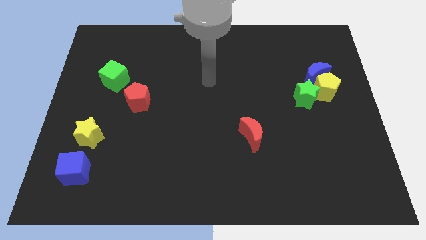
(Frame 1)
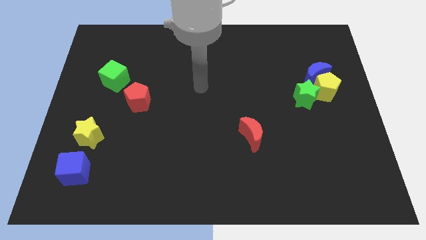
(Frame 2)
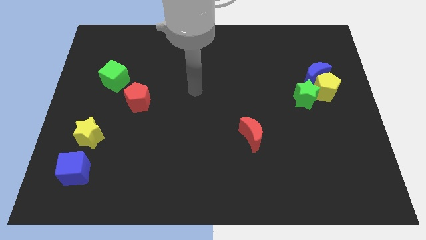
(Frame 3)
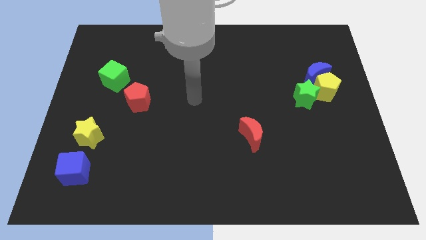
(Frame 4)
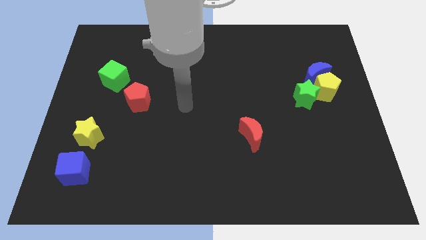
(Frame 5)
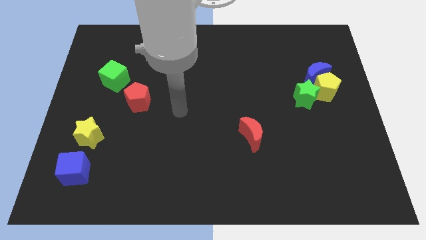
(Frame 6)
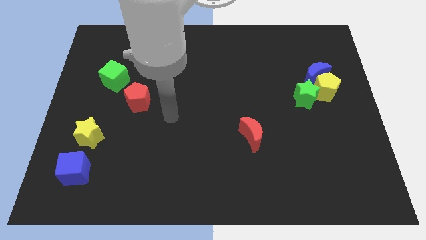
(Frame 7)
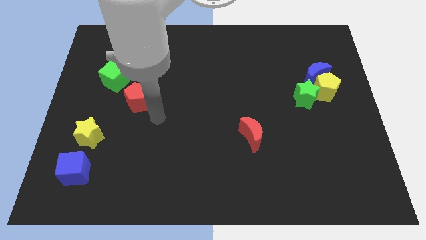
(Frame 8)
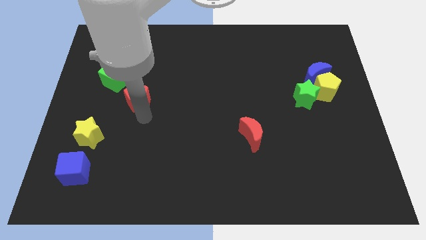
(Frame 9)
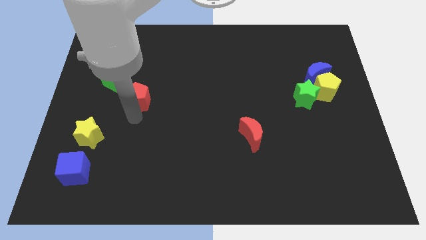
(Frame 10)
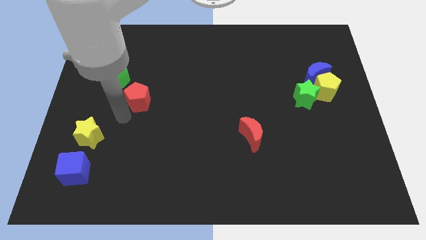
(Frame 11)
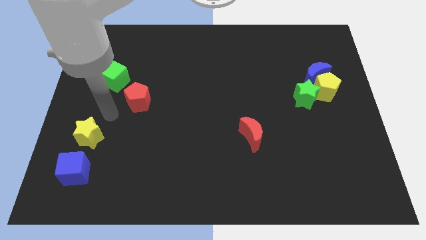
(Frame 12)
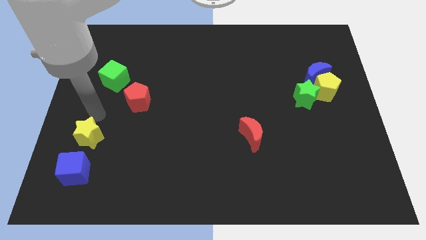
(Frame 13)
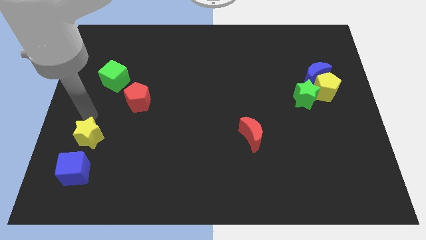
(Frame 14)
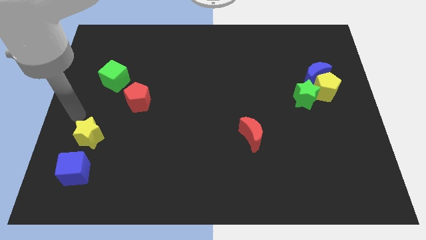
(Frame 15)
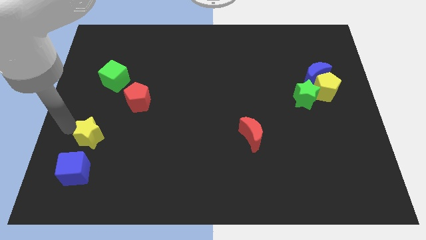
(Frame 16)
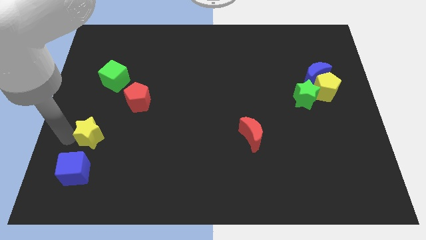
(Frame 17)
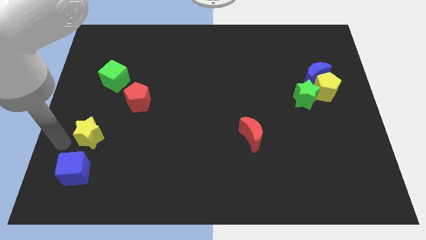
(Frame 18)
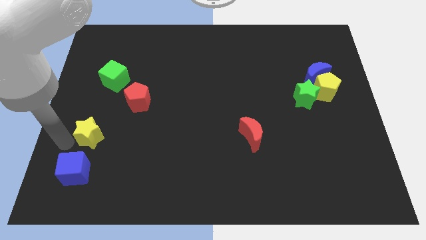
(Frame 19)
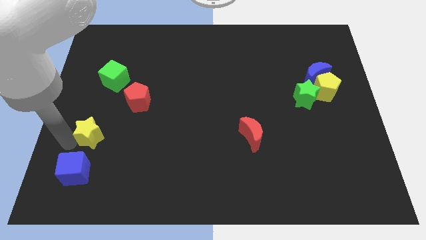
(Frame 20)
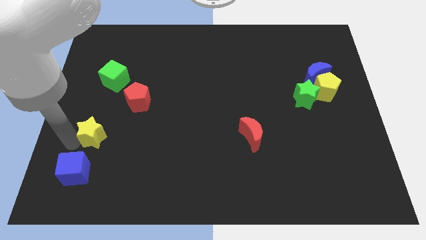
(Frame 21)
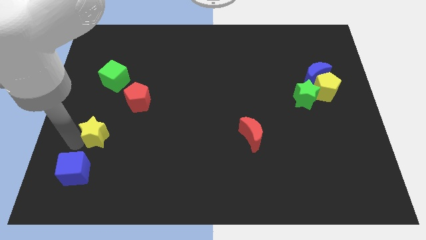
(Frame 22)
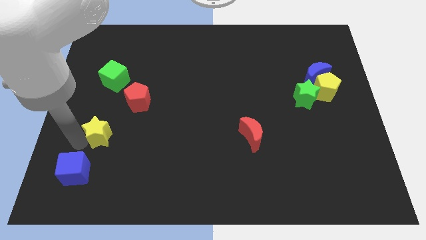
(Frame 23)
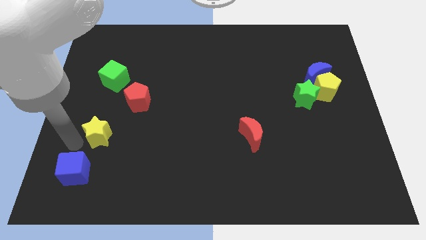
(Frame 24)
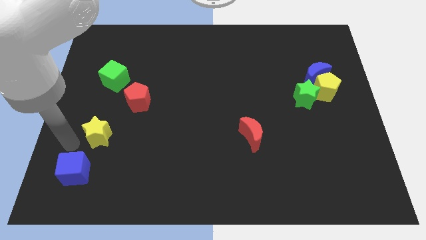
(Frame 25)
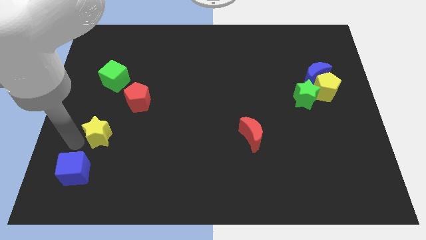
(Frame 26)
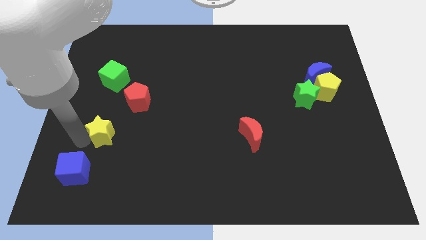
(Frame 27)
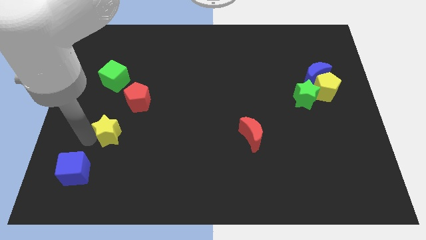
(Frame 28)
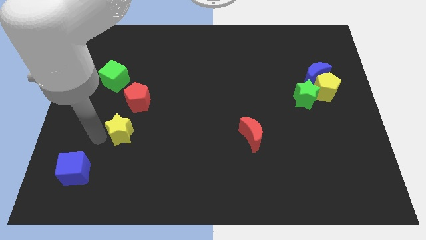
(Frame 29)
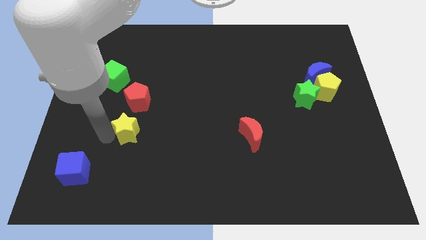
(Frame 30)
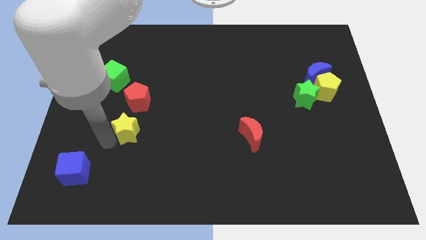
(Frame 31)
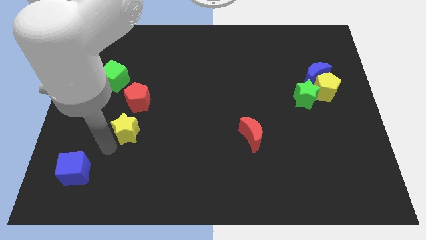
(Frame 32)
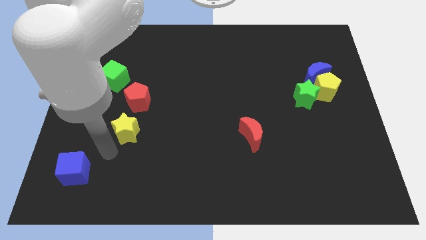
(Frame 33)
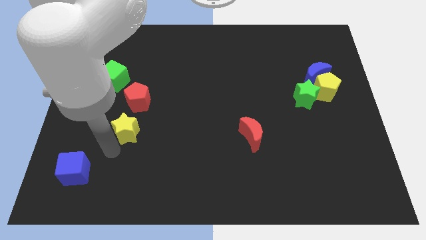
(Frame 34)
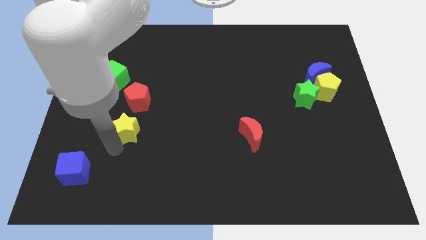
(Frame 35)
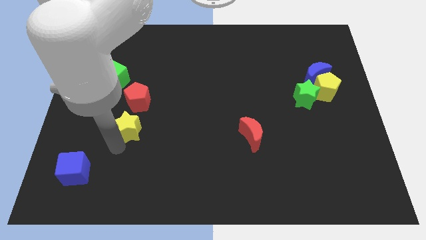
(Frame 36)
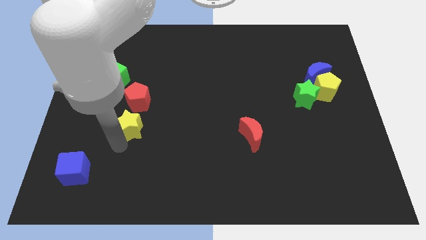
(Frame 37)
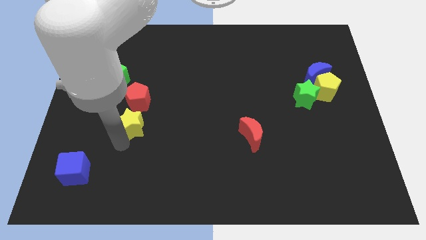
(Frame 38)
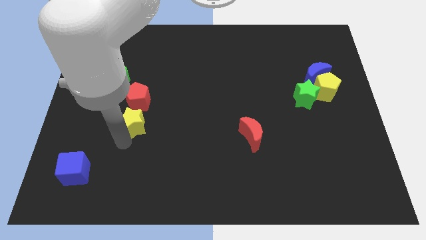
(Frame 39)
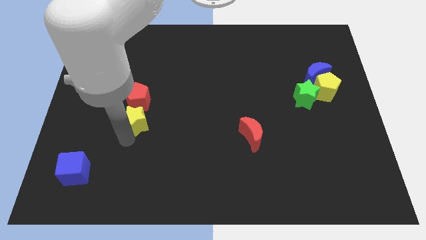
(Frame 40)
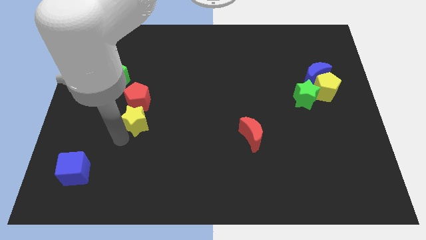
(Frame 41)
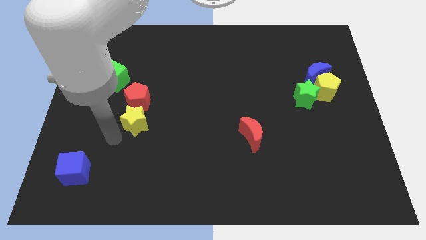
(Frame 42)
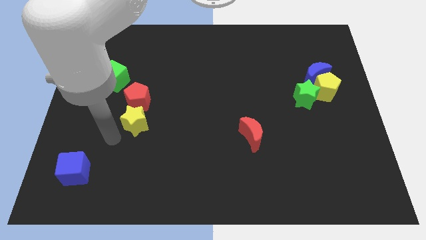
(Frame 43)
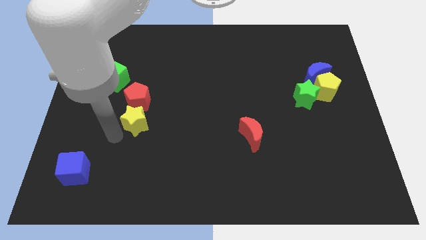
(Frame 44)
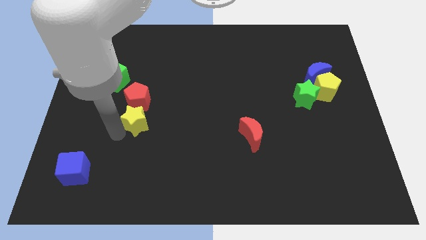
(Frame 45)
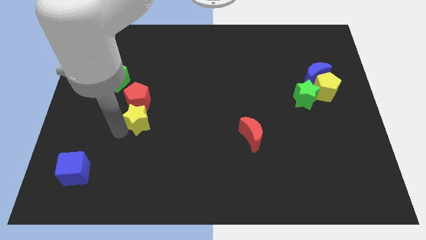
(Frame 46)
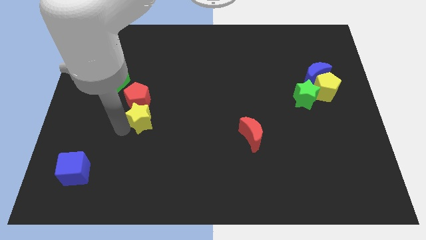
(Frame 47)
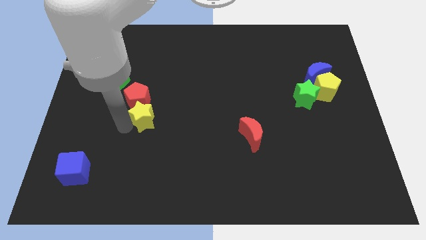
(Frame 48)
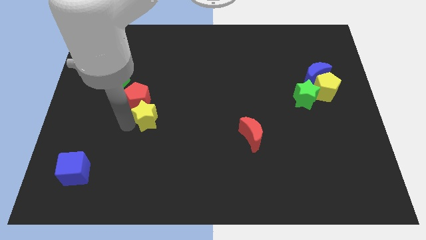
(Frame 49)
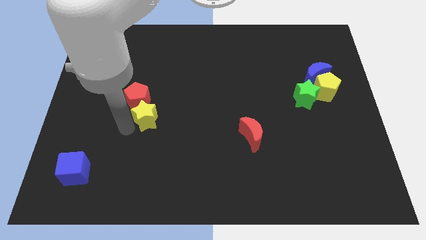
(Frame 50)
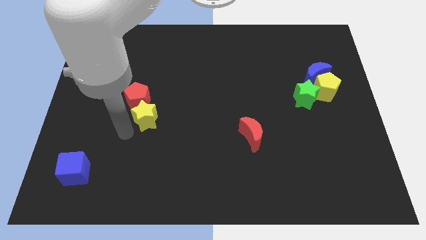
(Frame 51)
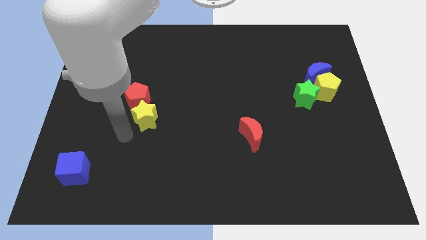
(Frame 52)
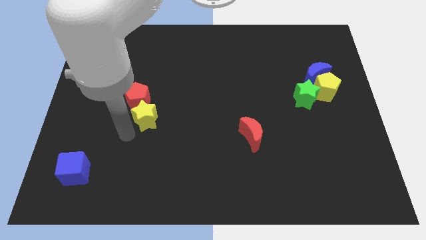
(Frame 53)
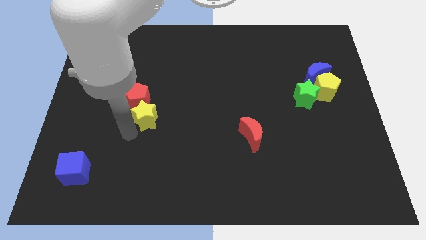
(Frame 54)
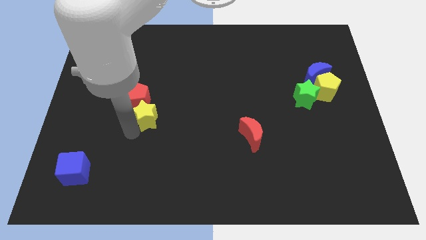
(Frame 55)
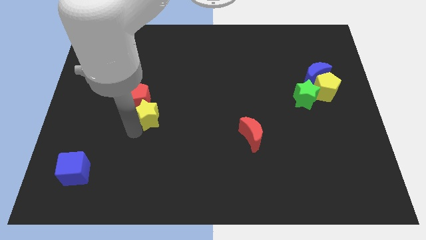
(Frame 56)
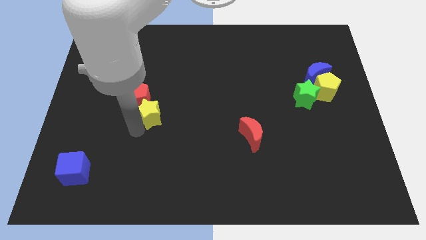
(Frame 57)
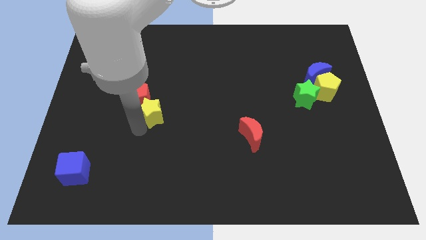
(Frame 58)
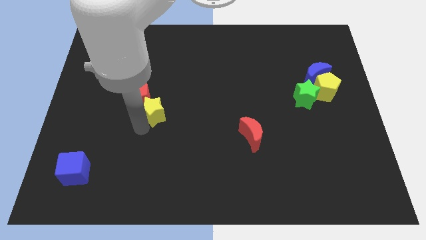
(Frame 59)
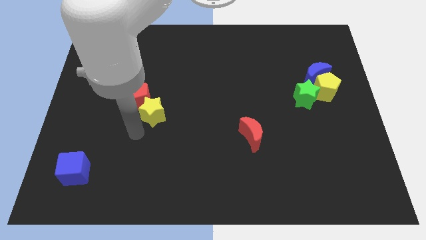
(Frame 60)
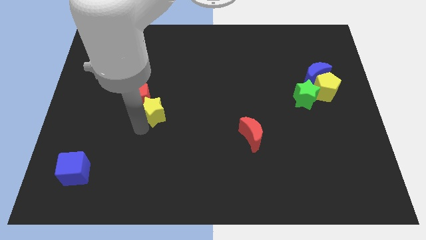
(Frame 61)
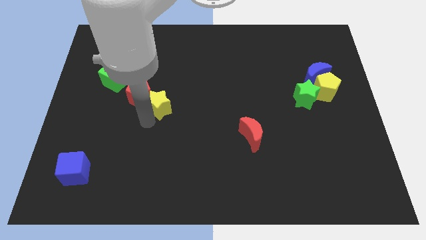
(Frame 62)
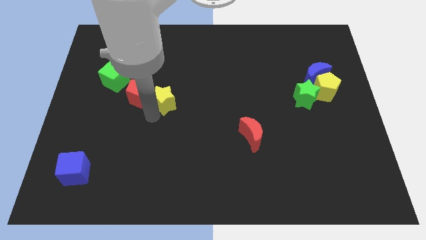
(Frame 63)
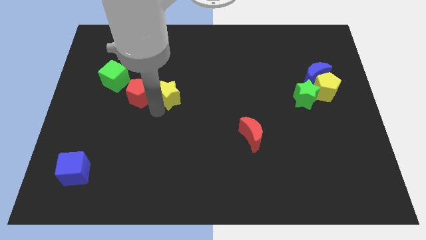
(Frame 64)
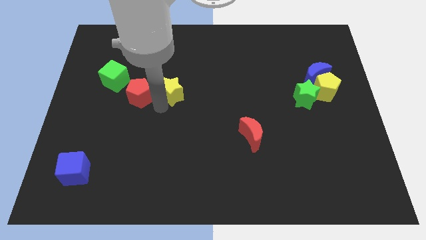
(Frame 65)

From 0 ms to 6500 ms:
move the yellow star upwards and right

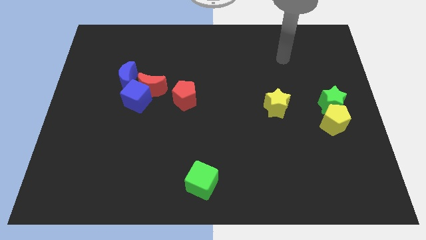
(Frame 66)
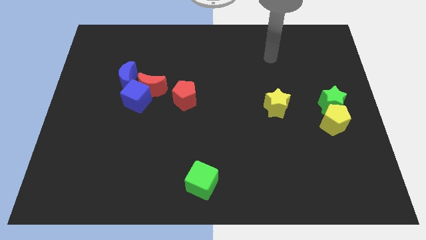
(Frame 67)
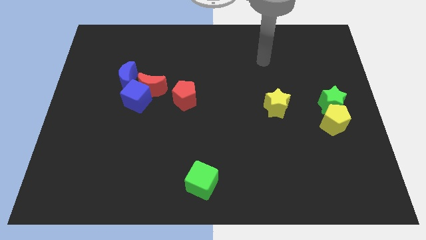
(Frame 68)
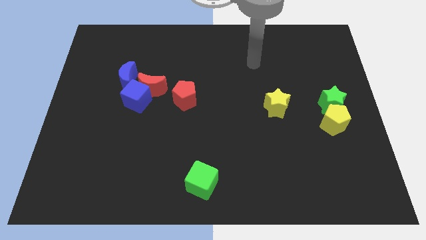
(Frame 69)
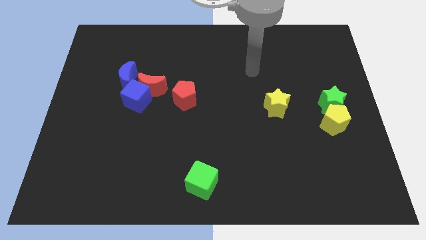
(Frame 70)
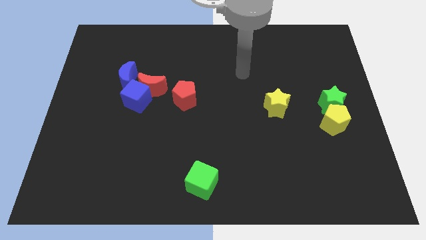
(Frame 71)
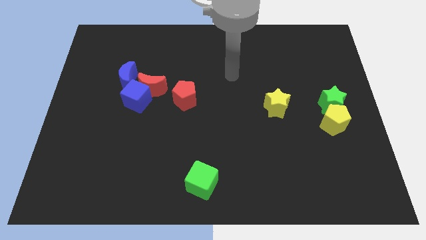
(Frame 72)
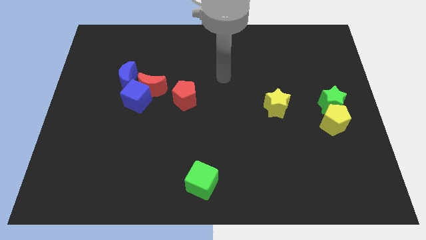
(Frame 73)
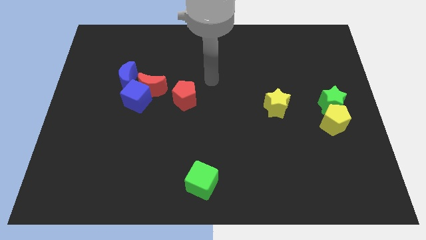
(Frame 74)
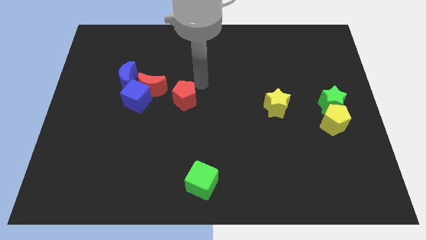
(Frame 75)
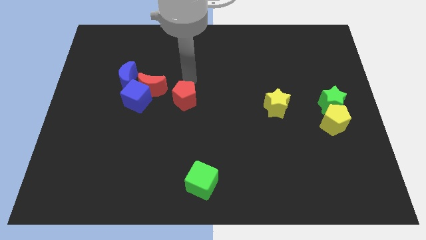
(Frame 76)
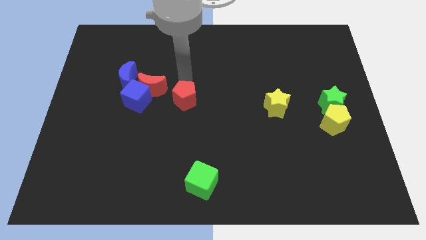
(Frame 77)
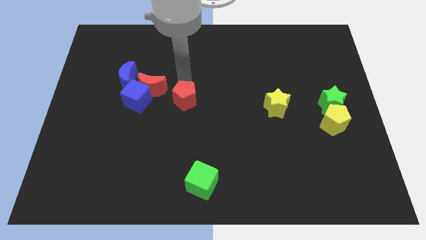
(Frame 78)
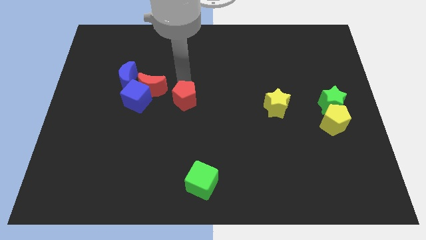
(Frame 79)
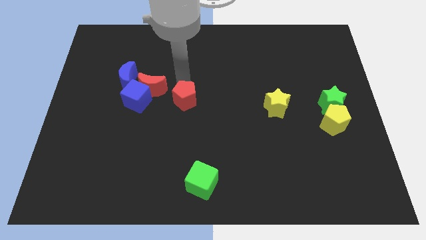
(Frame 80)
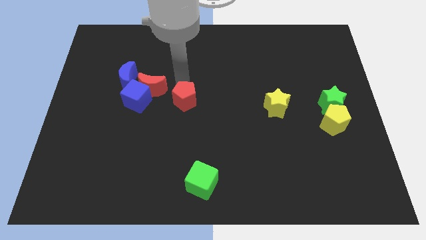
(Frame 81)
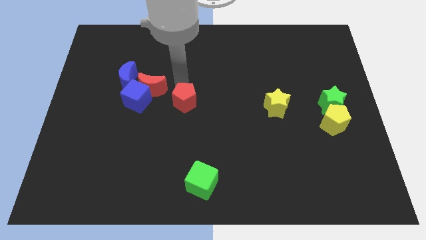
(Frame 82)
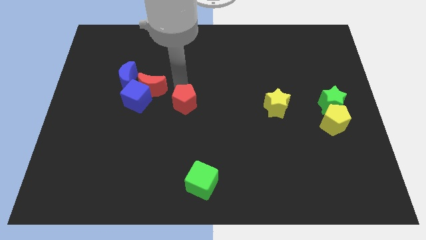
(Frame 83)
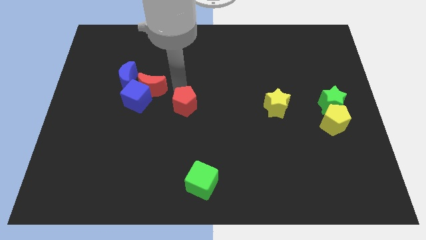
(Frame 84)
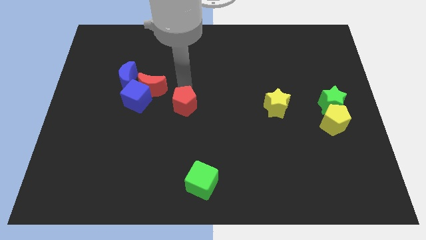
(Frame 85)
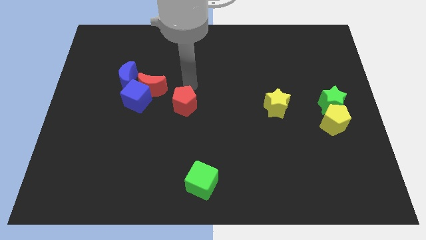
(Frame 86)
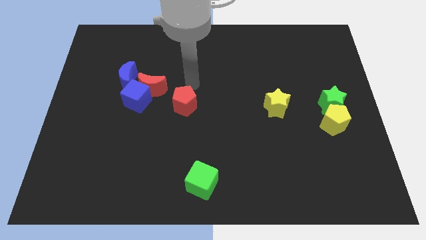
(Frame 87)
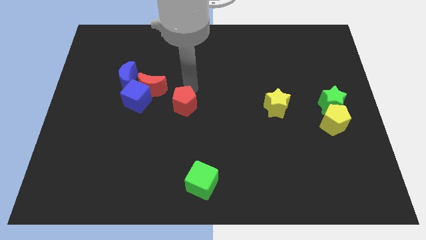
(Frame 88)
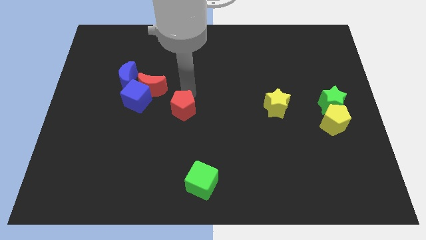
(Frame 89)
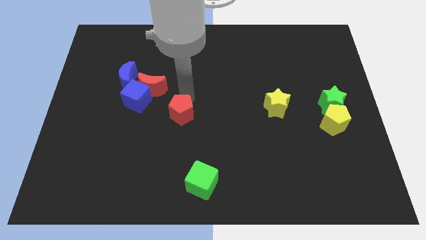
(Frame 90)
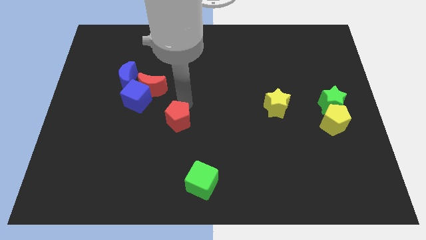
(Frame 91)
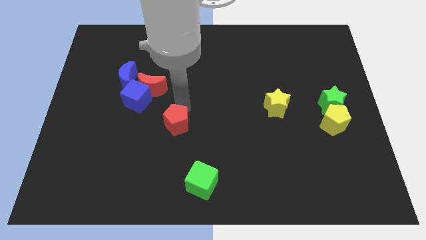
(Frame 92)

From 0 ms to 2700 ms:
slide the red pentagon a little bit down
